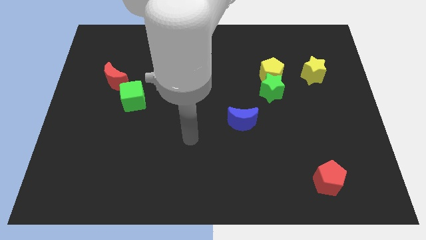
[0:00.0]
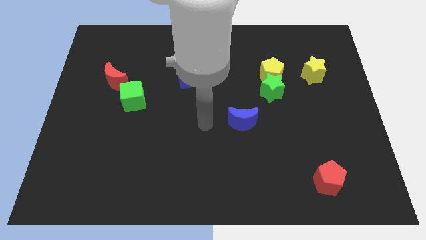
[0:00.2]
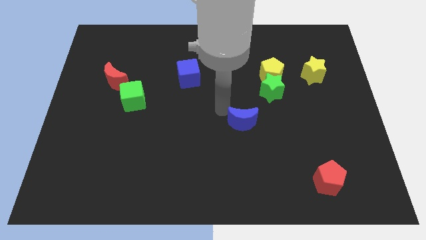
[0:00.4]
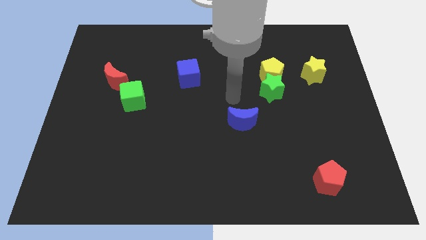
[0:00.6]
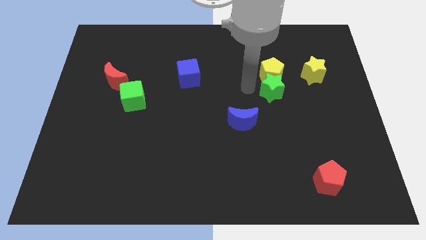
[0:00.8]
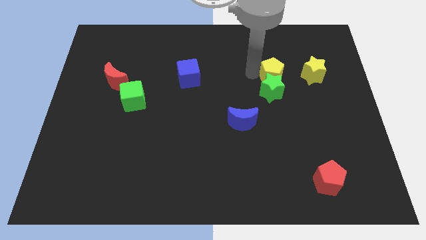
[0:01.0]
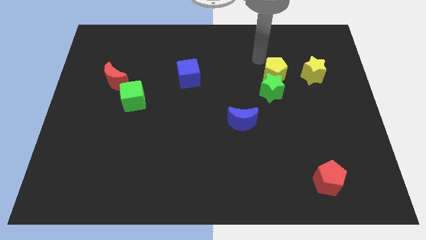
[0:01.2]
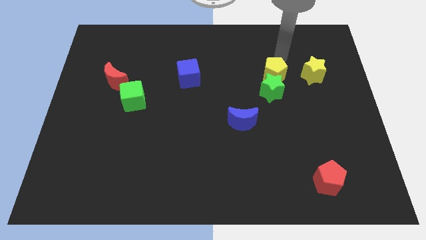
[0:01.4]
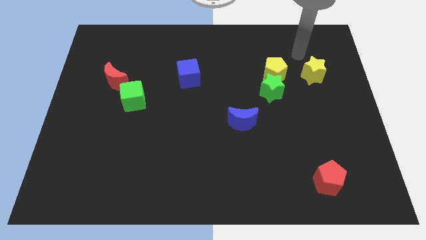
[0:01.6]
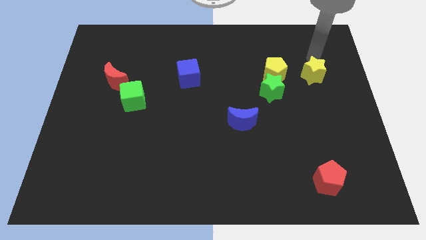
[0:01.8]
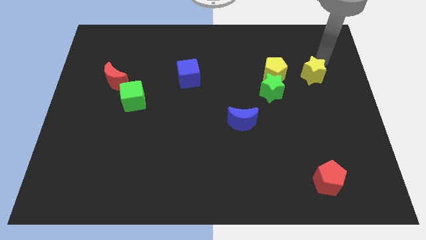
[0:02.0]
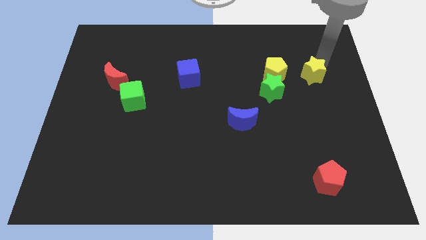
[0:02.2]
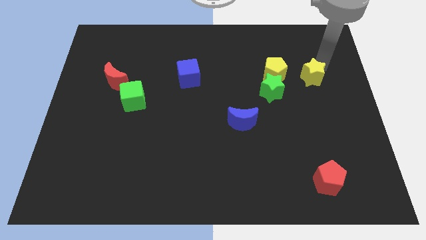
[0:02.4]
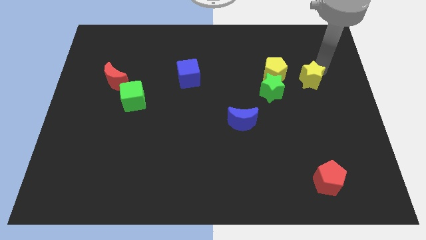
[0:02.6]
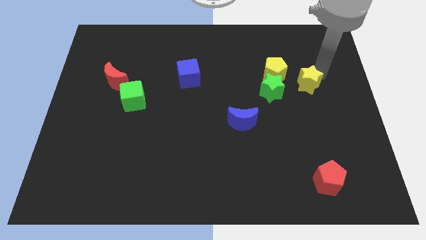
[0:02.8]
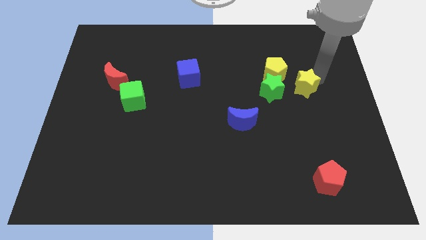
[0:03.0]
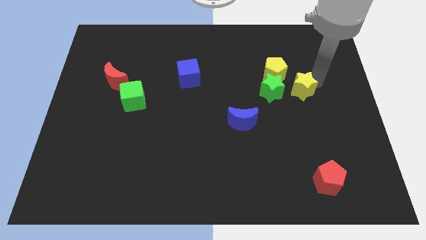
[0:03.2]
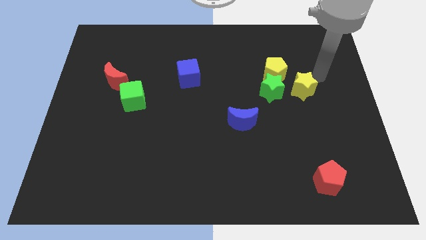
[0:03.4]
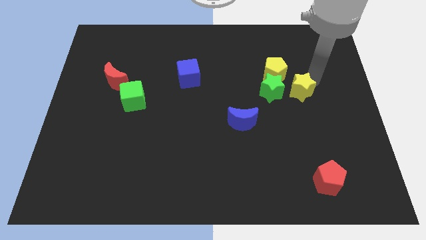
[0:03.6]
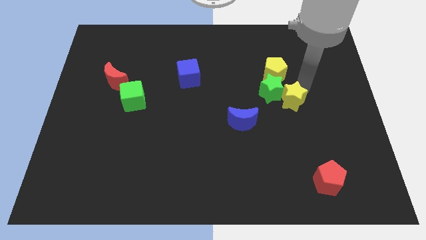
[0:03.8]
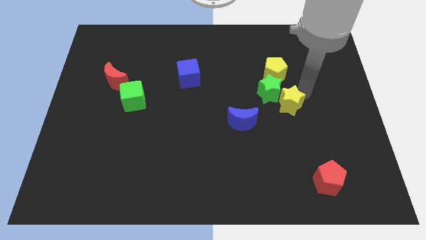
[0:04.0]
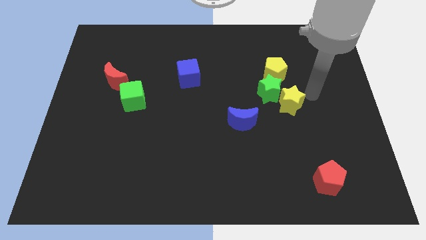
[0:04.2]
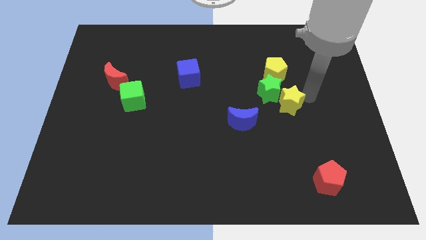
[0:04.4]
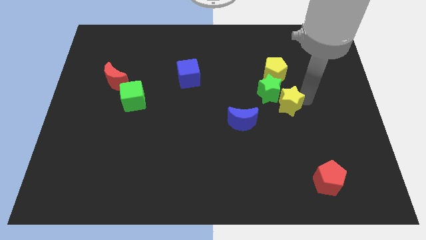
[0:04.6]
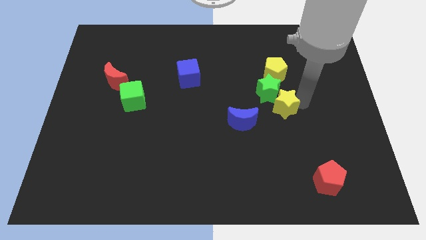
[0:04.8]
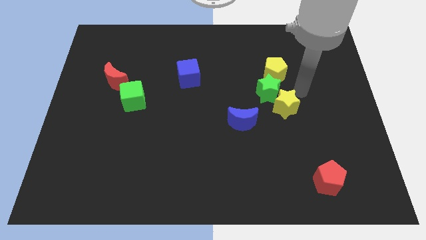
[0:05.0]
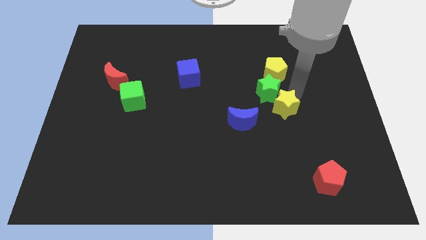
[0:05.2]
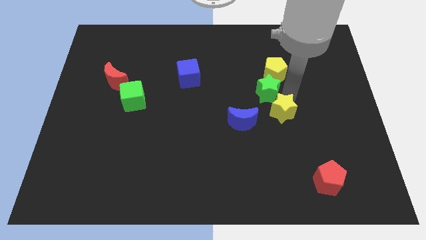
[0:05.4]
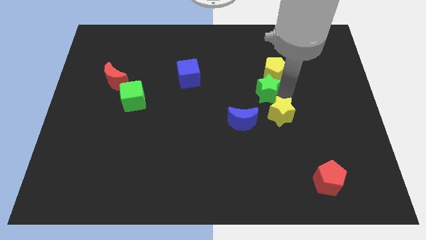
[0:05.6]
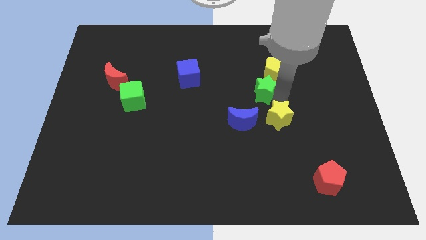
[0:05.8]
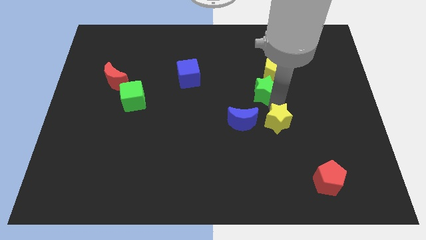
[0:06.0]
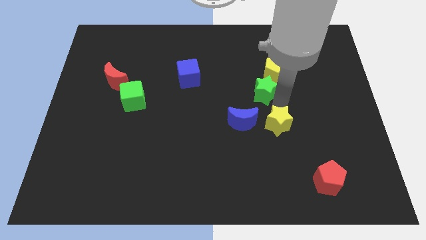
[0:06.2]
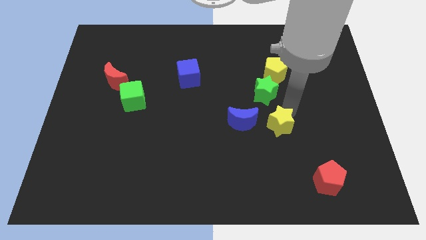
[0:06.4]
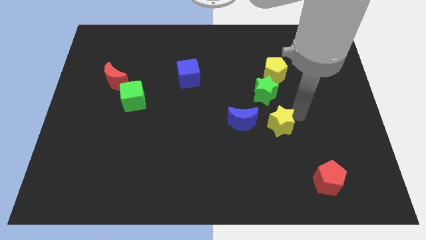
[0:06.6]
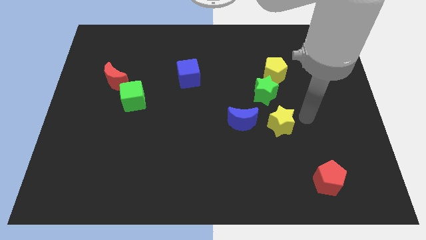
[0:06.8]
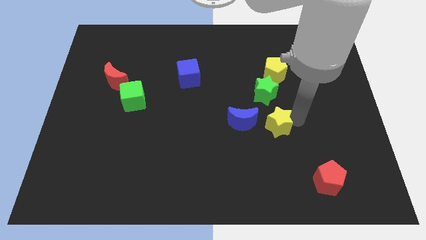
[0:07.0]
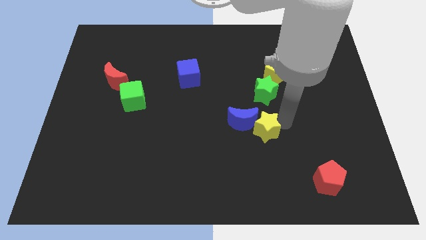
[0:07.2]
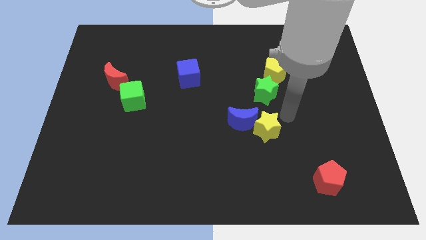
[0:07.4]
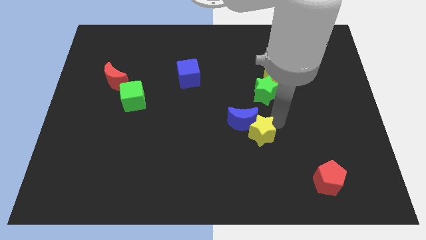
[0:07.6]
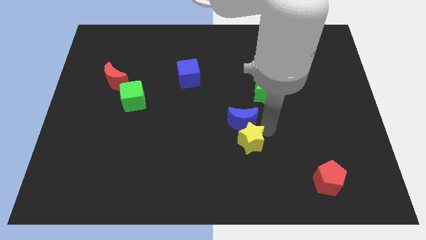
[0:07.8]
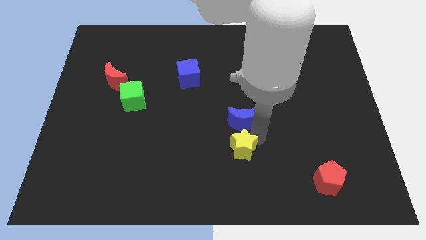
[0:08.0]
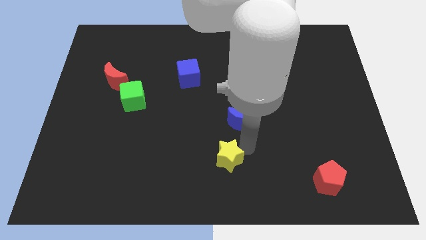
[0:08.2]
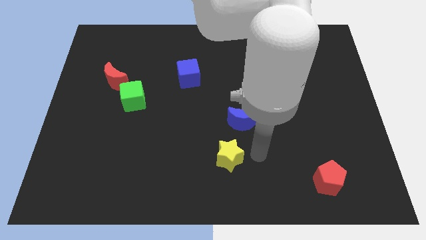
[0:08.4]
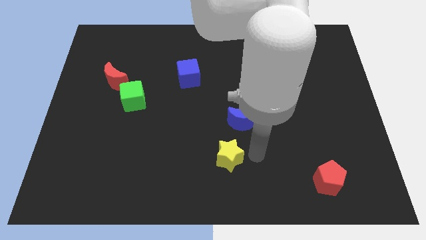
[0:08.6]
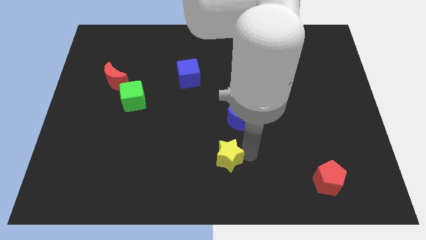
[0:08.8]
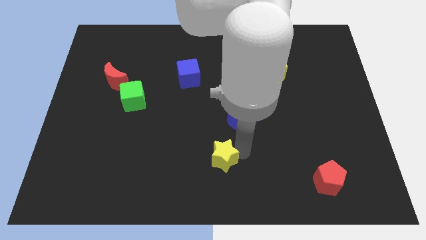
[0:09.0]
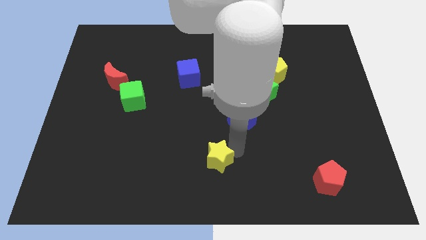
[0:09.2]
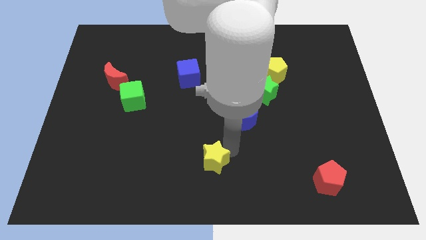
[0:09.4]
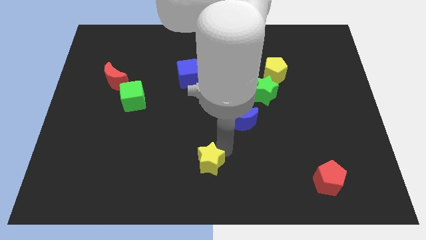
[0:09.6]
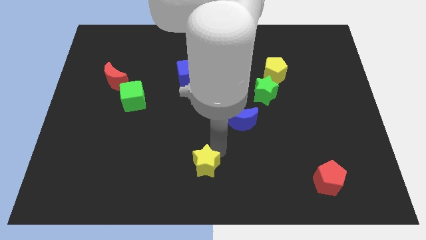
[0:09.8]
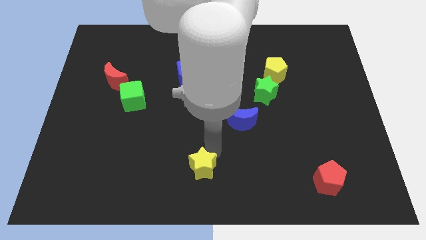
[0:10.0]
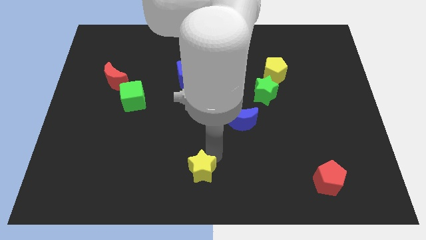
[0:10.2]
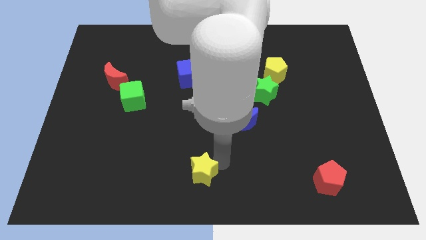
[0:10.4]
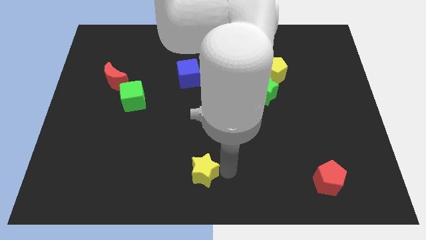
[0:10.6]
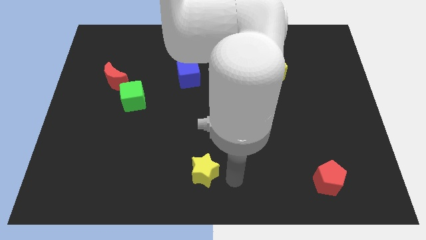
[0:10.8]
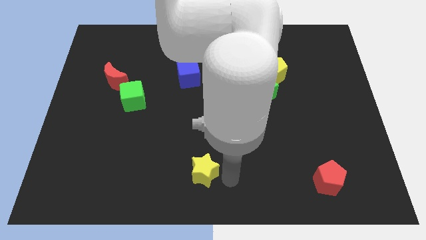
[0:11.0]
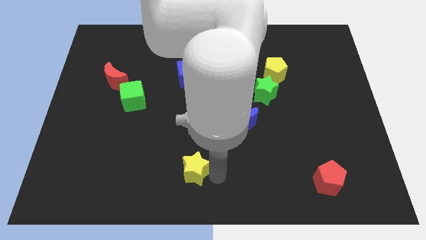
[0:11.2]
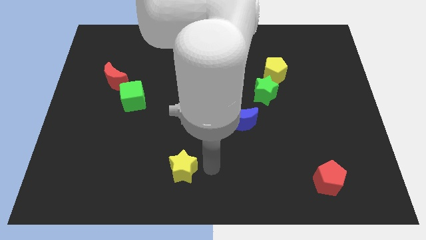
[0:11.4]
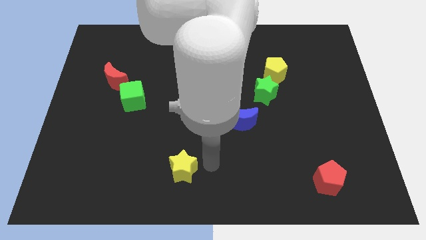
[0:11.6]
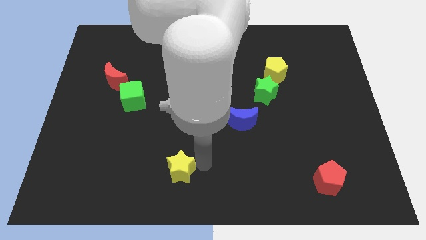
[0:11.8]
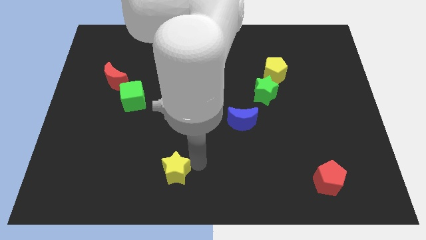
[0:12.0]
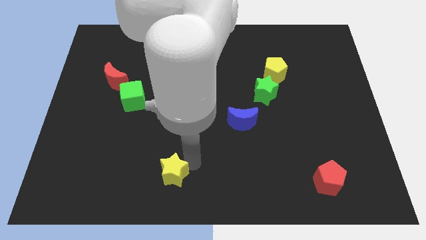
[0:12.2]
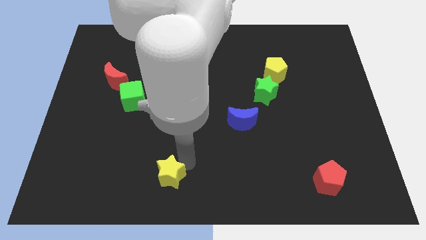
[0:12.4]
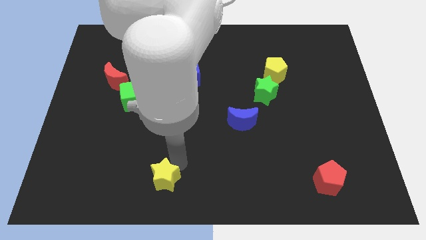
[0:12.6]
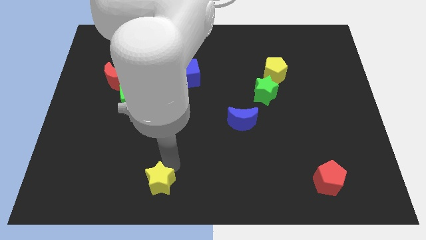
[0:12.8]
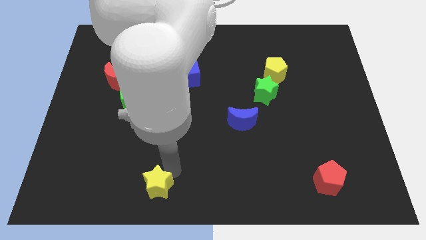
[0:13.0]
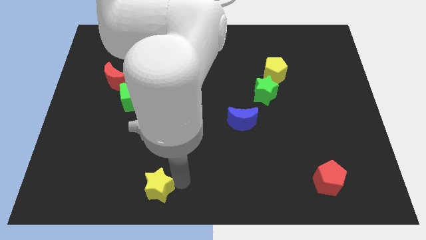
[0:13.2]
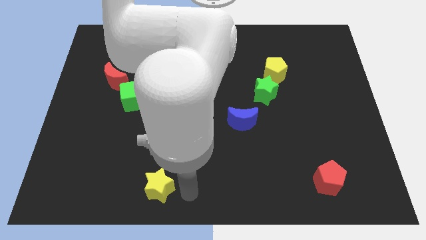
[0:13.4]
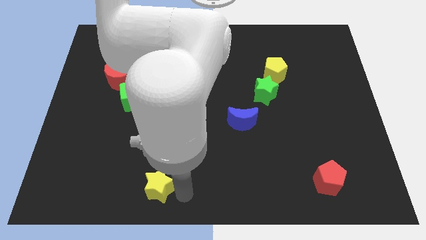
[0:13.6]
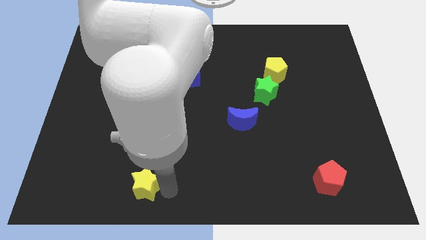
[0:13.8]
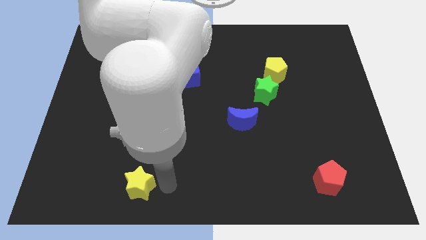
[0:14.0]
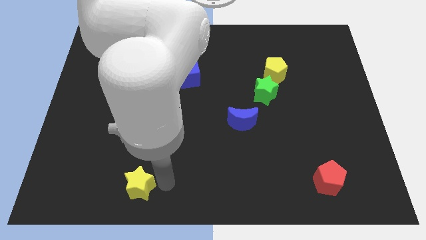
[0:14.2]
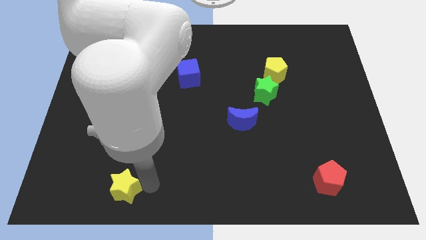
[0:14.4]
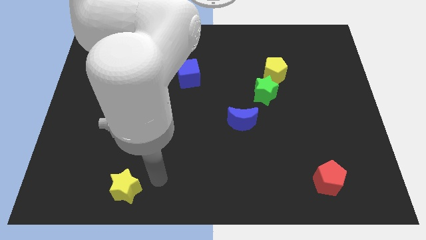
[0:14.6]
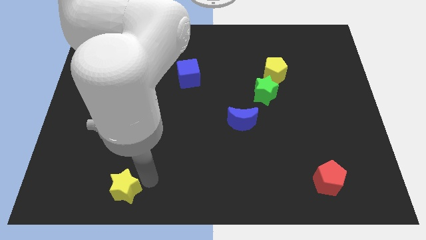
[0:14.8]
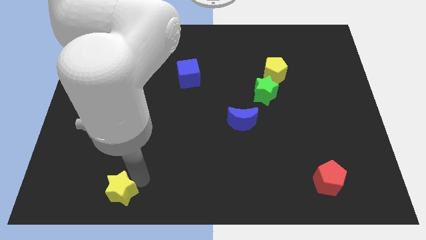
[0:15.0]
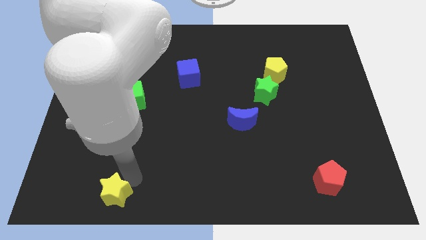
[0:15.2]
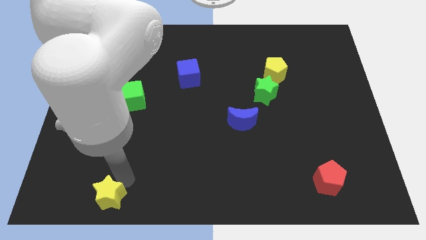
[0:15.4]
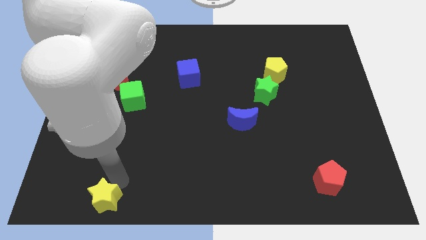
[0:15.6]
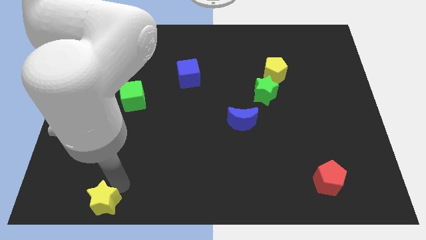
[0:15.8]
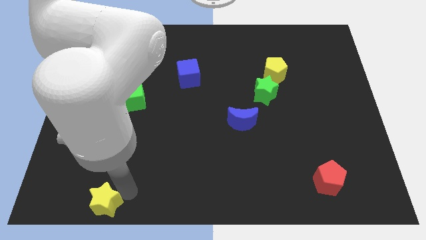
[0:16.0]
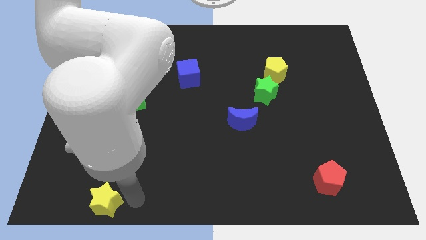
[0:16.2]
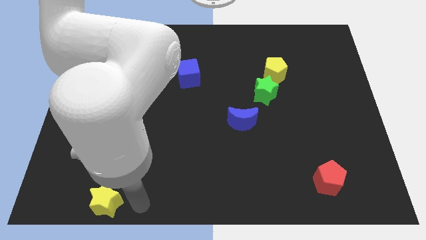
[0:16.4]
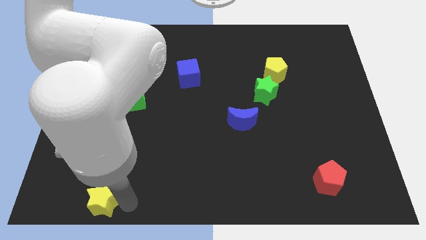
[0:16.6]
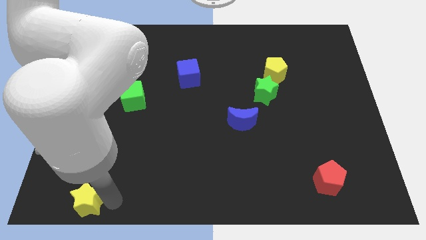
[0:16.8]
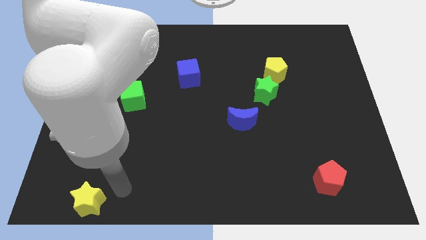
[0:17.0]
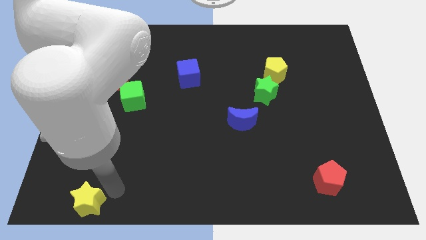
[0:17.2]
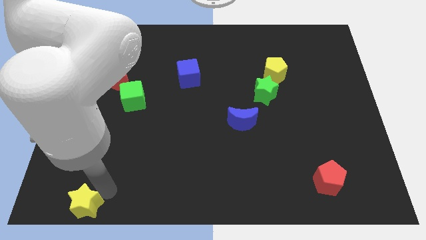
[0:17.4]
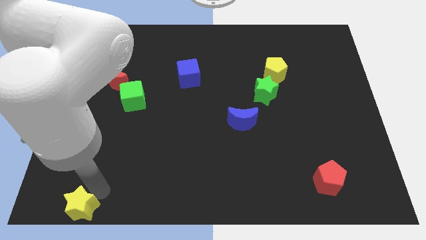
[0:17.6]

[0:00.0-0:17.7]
put the yellow star to the bottom left
